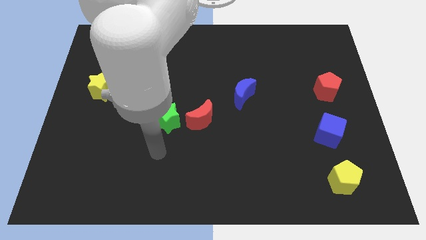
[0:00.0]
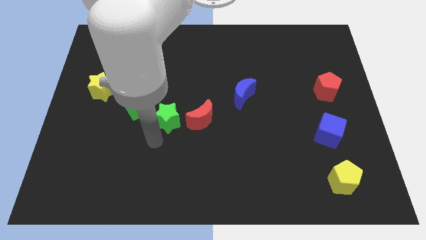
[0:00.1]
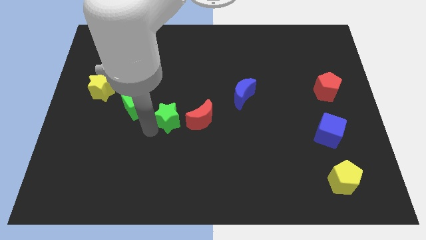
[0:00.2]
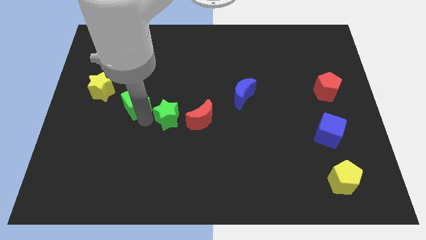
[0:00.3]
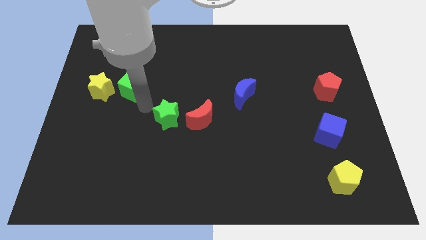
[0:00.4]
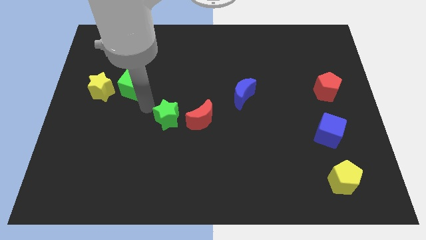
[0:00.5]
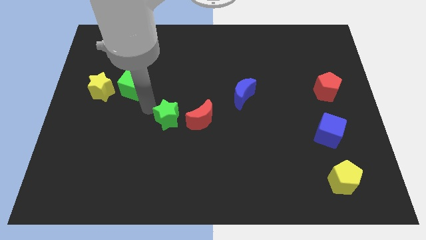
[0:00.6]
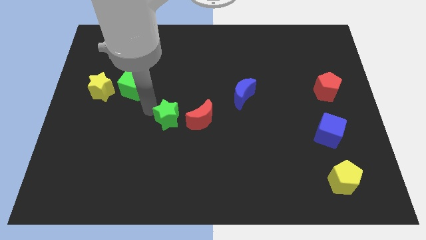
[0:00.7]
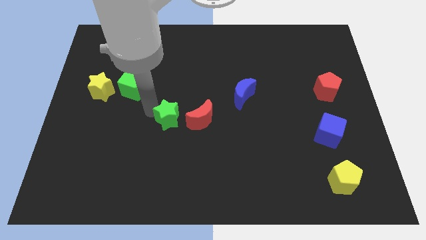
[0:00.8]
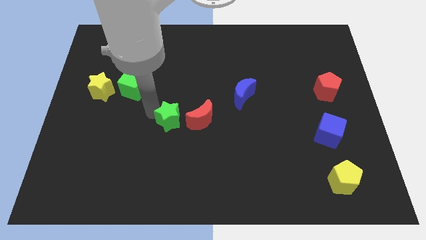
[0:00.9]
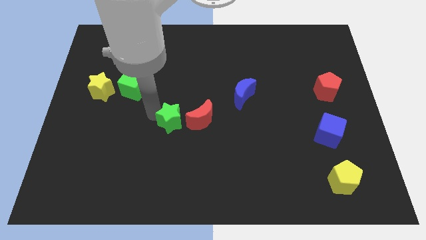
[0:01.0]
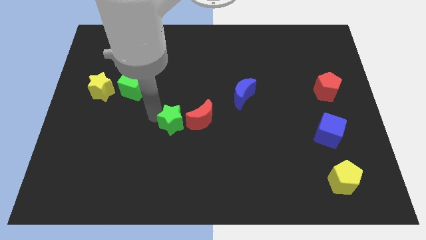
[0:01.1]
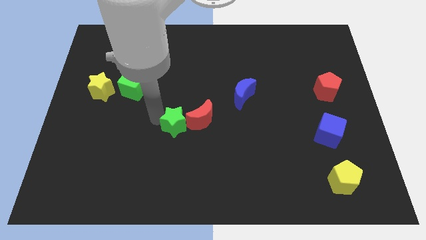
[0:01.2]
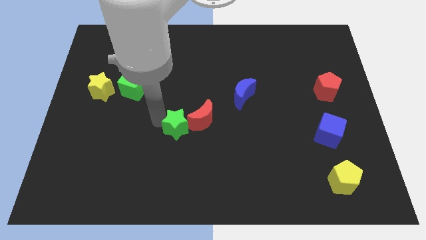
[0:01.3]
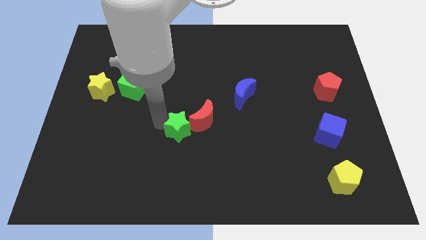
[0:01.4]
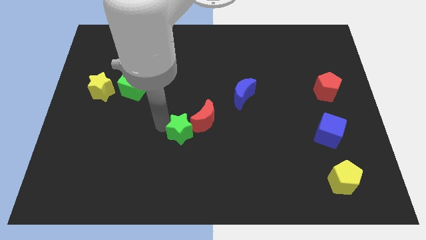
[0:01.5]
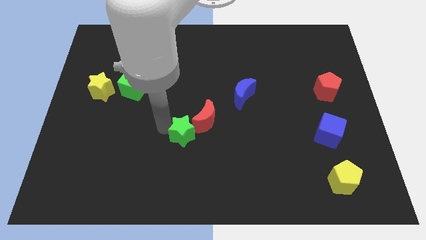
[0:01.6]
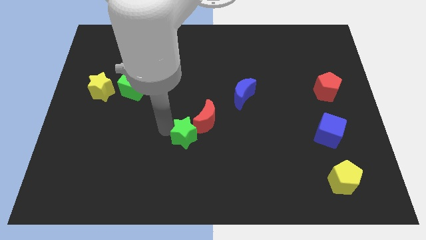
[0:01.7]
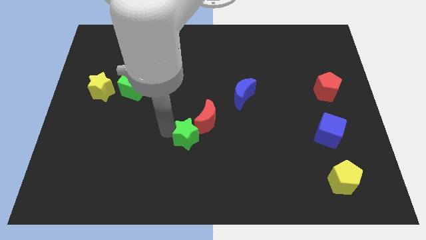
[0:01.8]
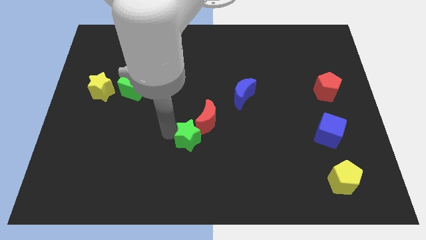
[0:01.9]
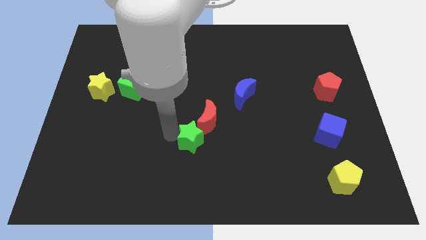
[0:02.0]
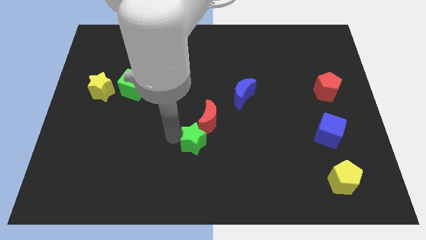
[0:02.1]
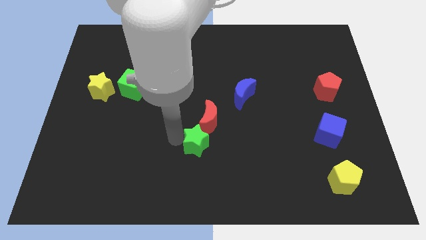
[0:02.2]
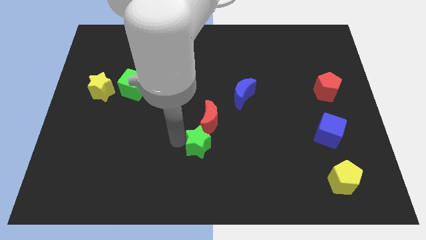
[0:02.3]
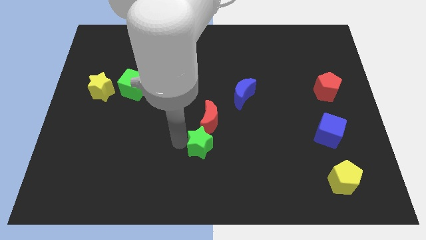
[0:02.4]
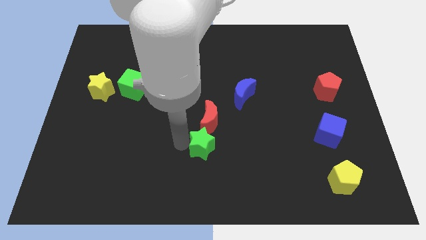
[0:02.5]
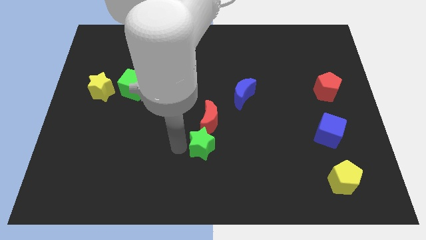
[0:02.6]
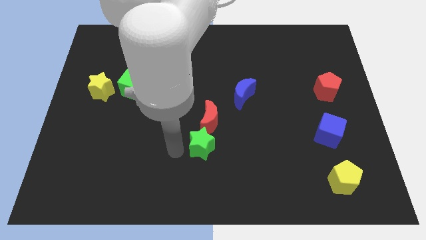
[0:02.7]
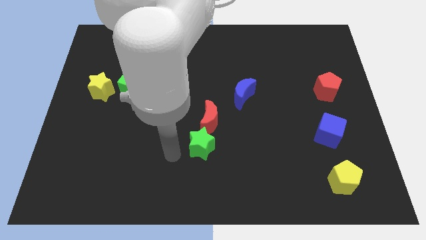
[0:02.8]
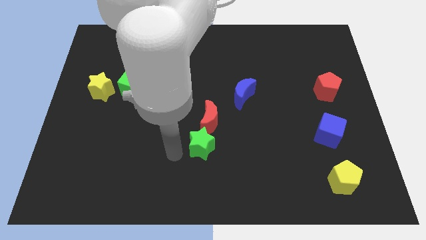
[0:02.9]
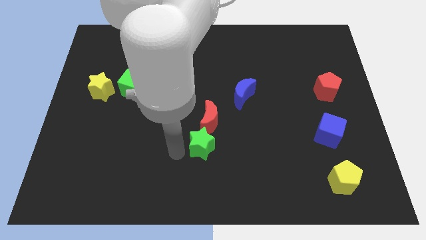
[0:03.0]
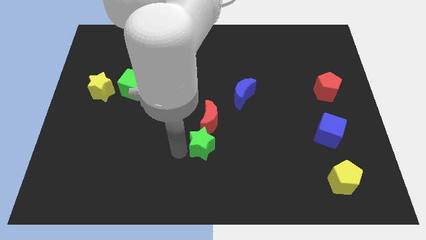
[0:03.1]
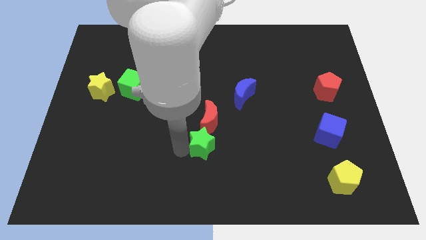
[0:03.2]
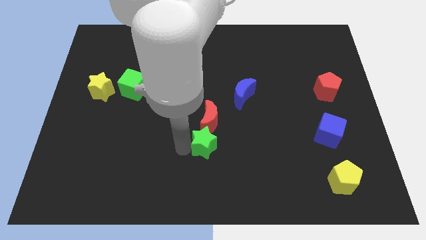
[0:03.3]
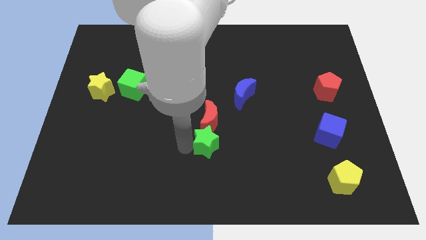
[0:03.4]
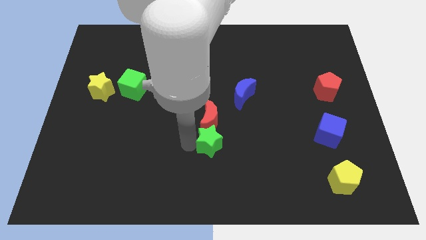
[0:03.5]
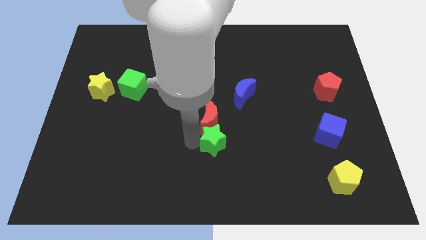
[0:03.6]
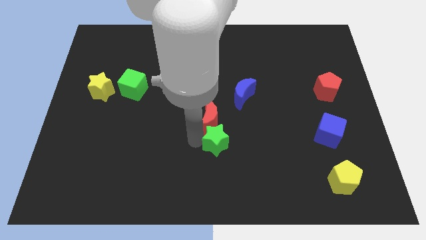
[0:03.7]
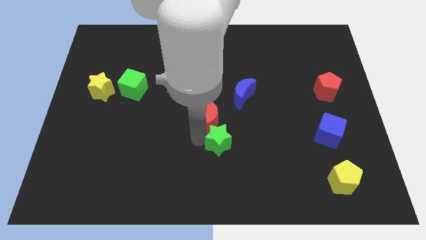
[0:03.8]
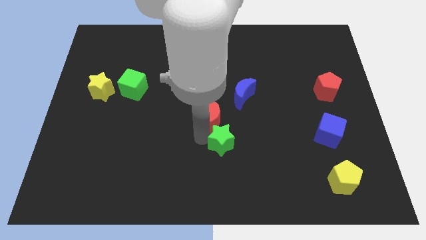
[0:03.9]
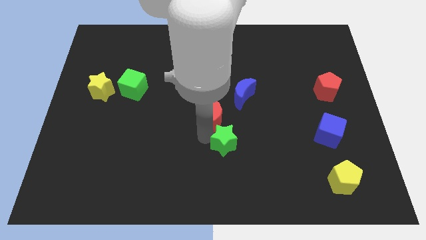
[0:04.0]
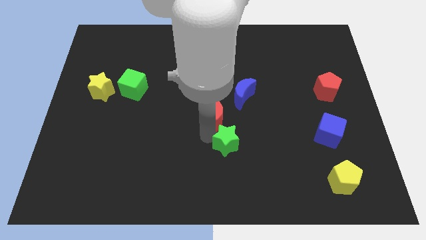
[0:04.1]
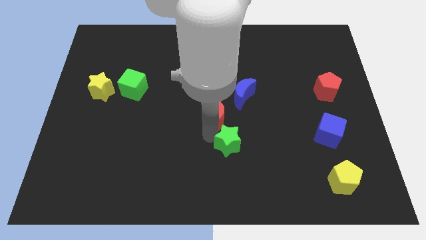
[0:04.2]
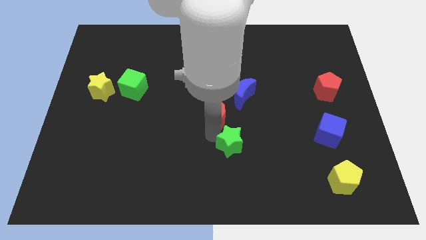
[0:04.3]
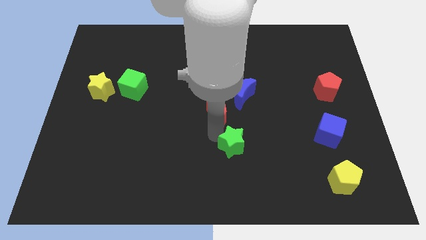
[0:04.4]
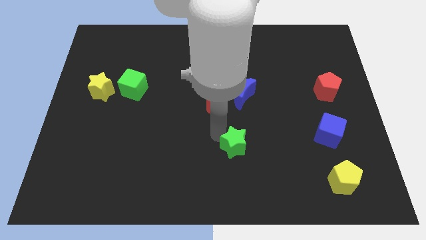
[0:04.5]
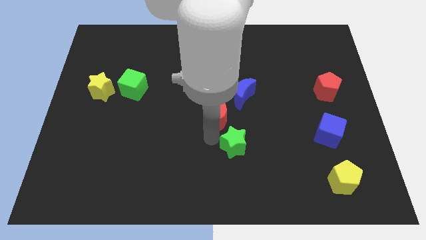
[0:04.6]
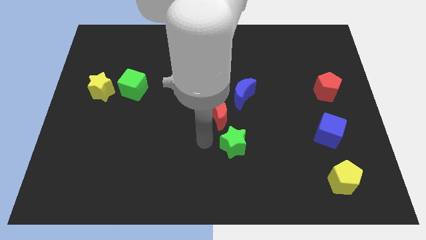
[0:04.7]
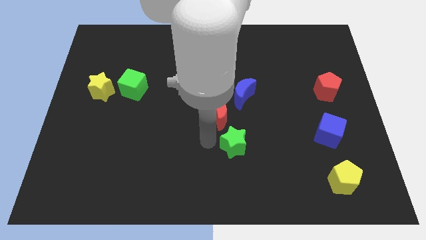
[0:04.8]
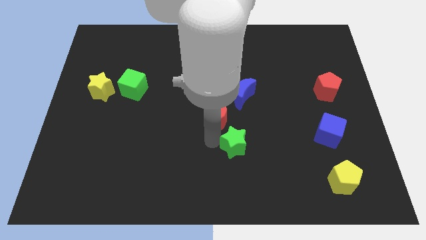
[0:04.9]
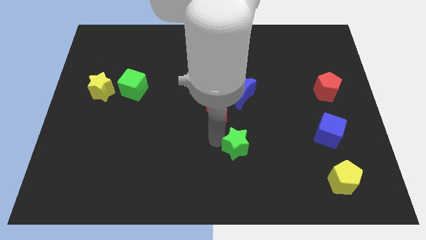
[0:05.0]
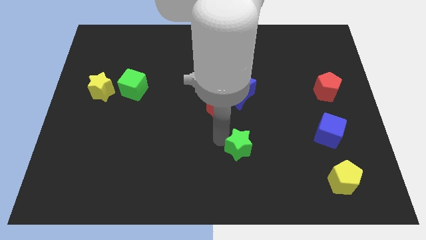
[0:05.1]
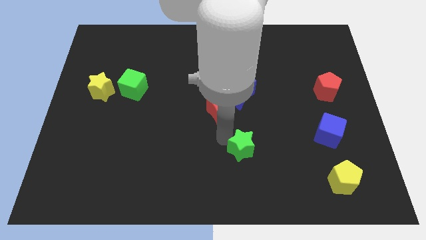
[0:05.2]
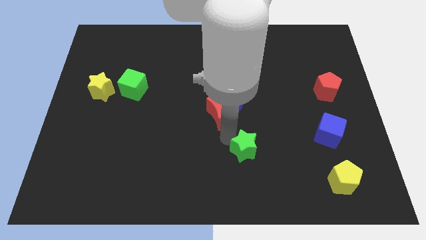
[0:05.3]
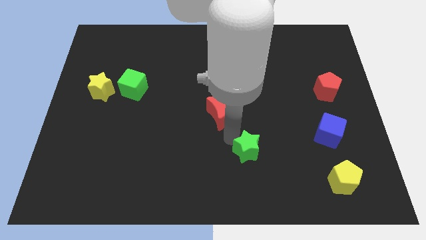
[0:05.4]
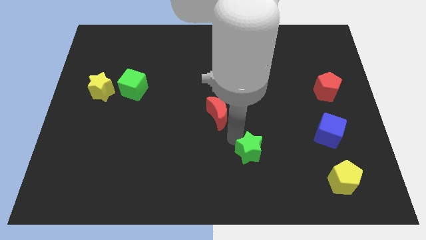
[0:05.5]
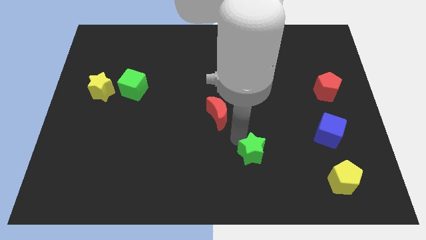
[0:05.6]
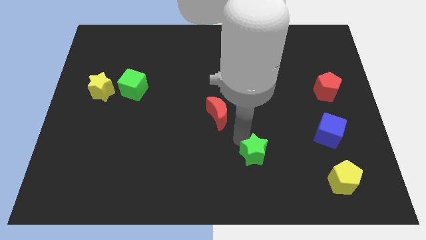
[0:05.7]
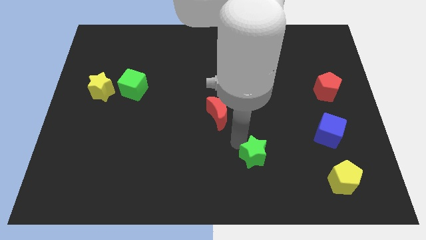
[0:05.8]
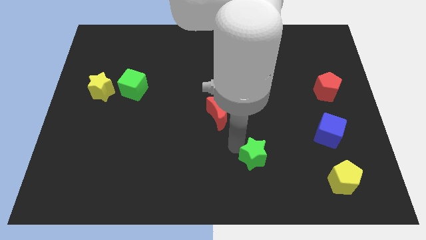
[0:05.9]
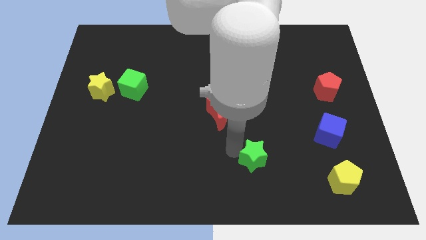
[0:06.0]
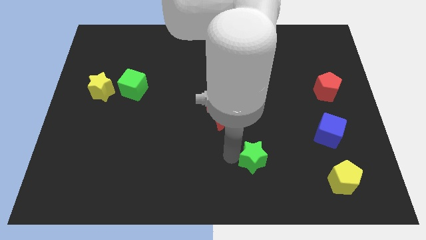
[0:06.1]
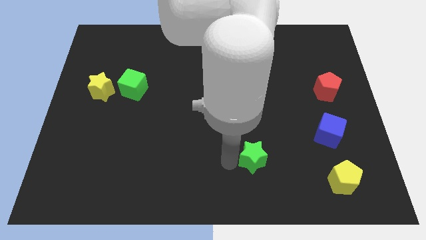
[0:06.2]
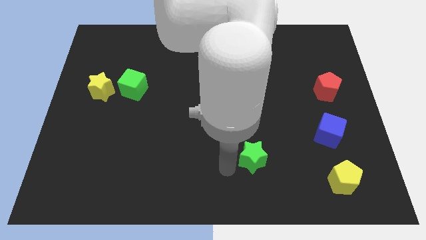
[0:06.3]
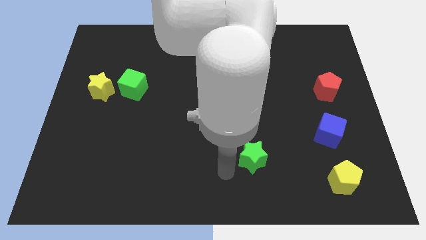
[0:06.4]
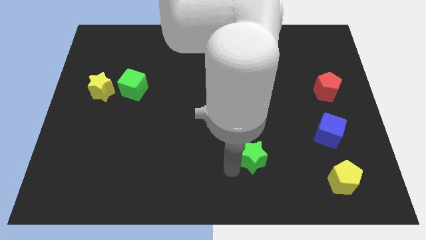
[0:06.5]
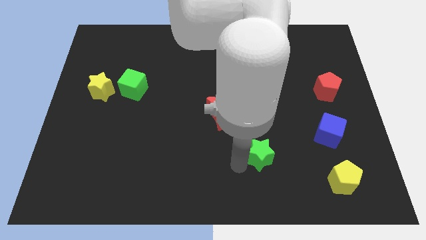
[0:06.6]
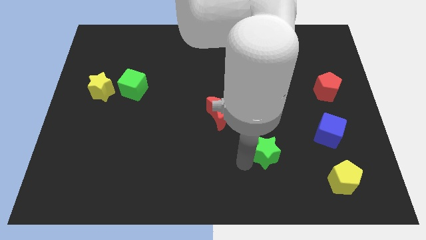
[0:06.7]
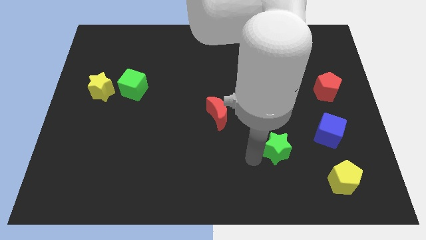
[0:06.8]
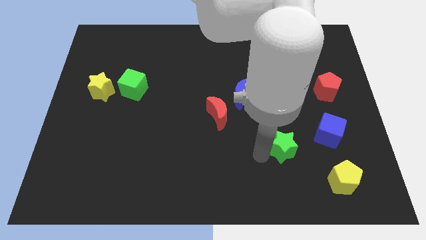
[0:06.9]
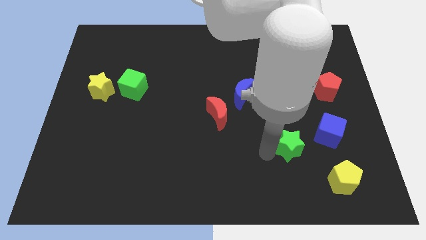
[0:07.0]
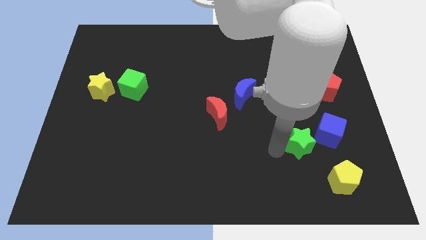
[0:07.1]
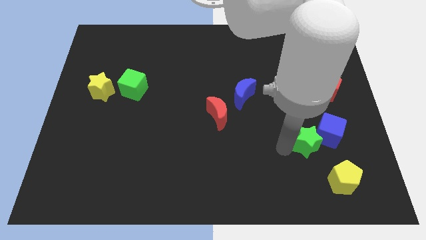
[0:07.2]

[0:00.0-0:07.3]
push the green star next to the blue cube

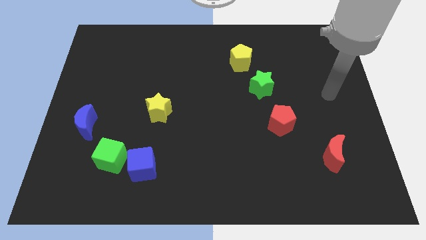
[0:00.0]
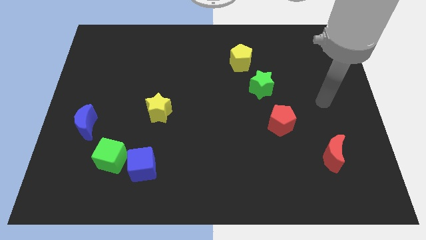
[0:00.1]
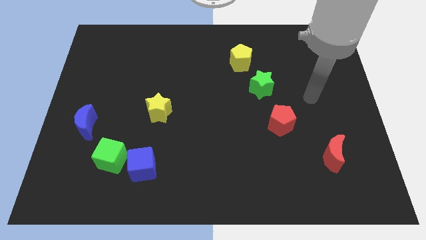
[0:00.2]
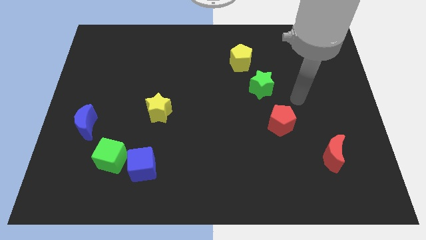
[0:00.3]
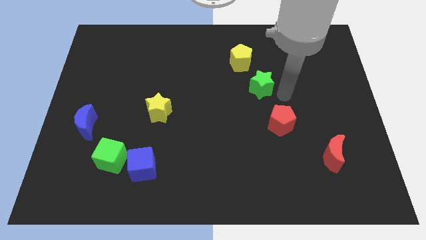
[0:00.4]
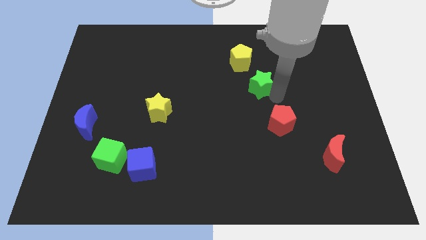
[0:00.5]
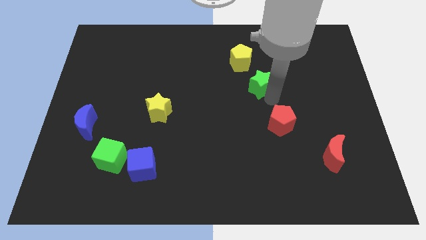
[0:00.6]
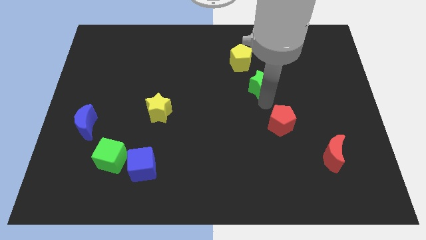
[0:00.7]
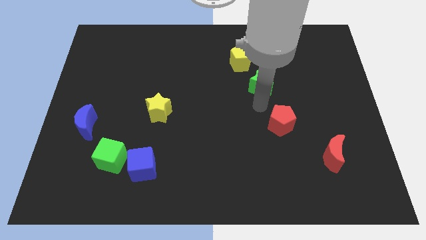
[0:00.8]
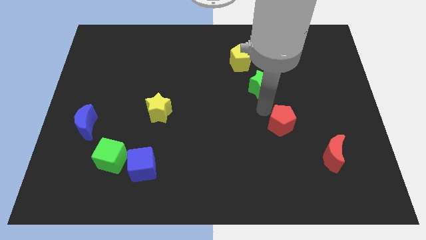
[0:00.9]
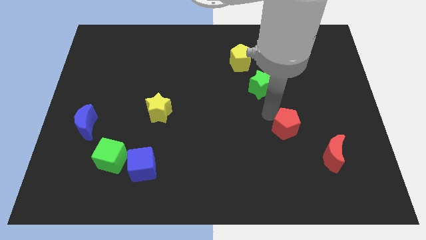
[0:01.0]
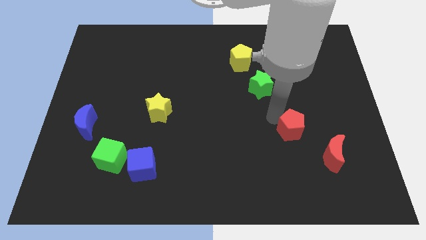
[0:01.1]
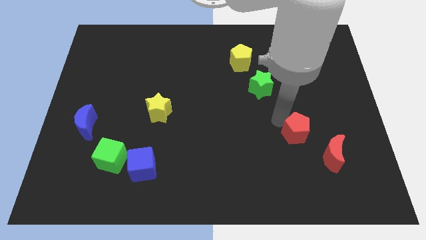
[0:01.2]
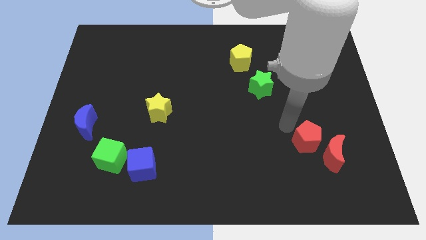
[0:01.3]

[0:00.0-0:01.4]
put the red pentagon towards the red moon
